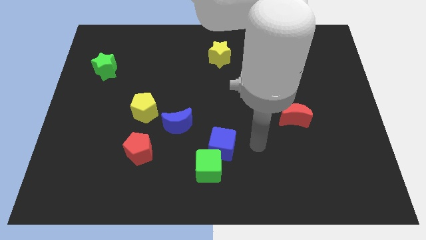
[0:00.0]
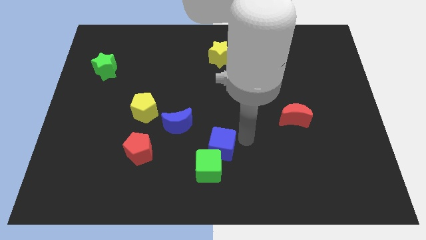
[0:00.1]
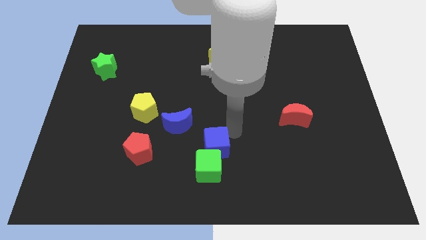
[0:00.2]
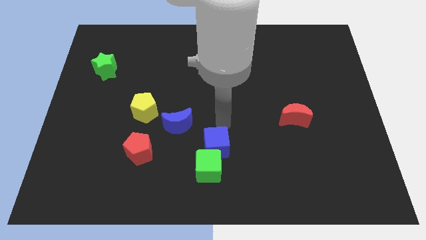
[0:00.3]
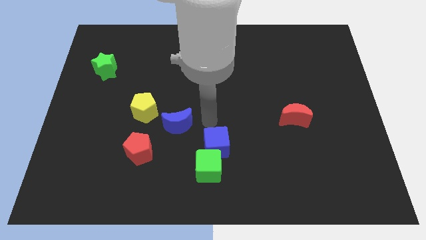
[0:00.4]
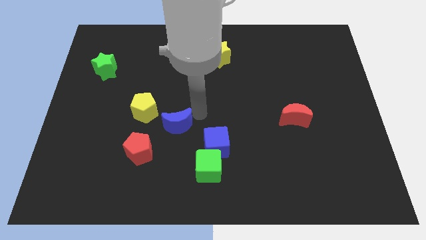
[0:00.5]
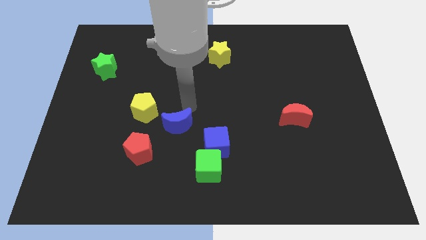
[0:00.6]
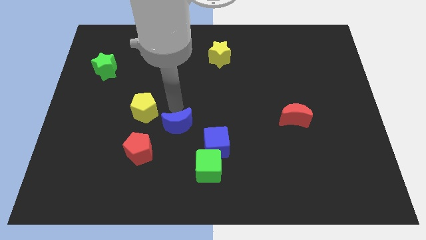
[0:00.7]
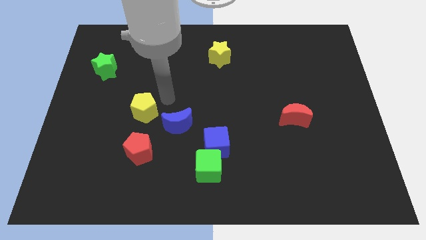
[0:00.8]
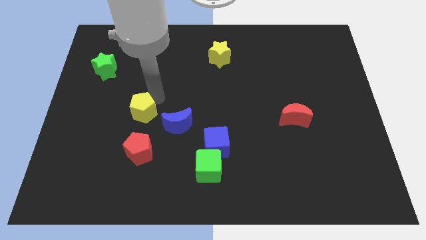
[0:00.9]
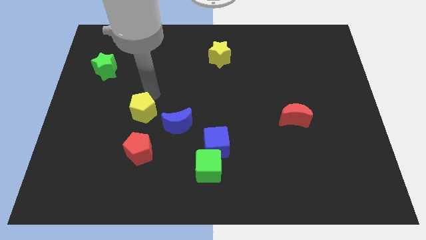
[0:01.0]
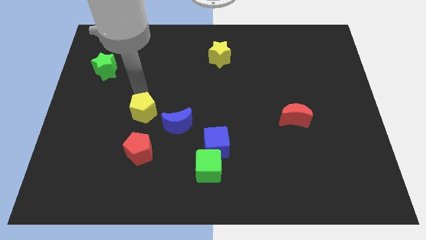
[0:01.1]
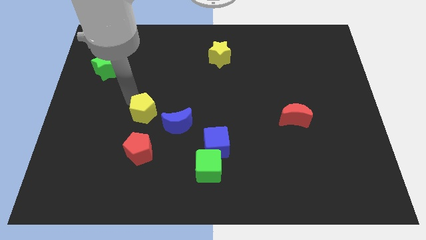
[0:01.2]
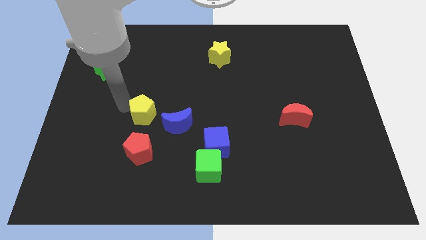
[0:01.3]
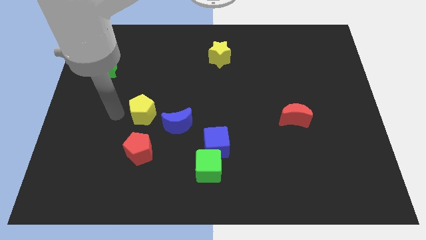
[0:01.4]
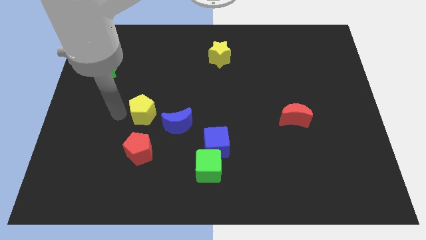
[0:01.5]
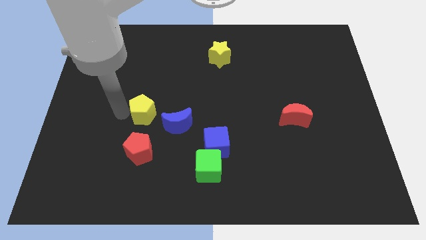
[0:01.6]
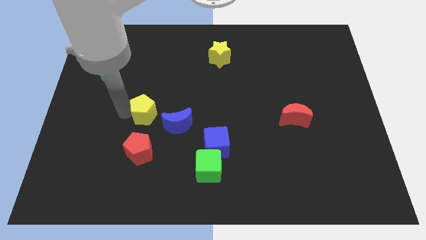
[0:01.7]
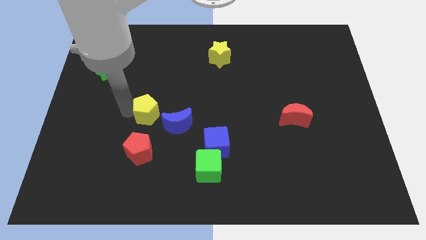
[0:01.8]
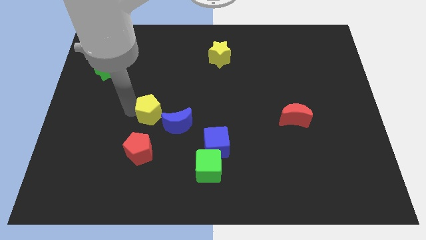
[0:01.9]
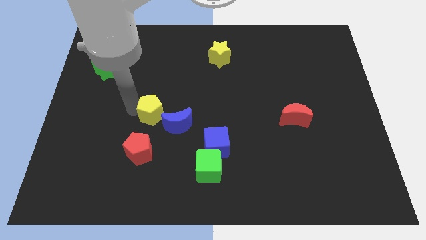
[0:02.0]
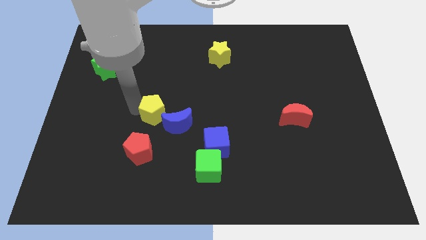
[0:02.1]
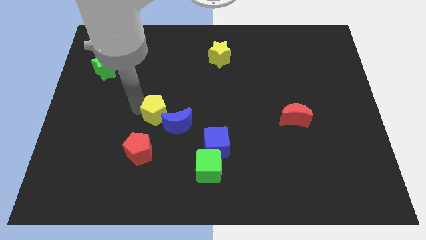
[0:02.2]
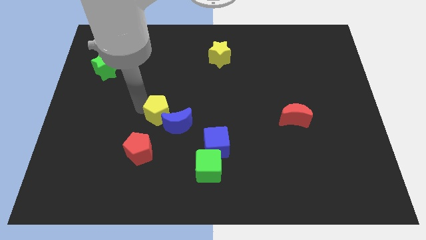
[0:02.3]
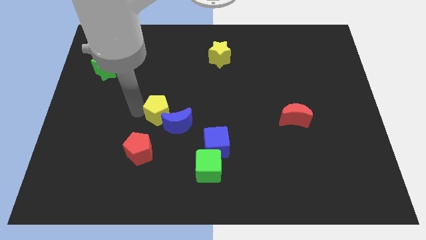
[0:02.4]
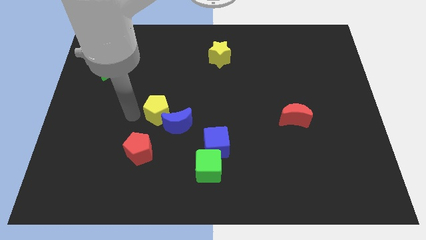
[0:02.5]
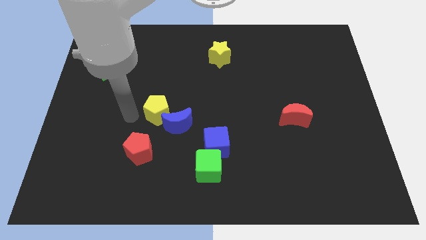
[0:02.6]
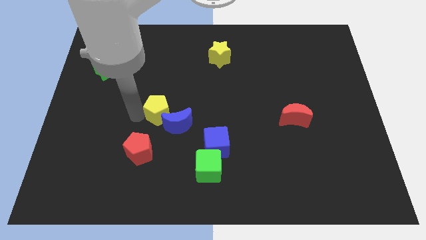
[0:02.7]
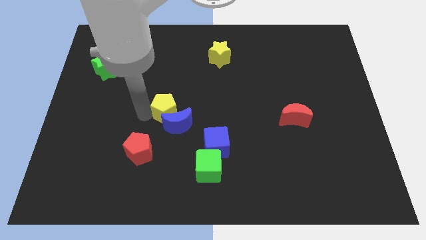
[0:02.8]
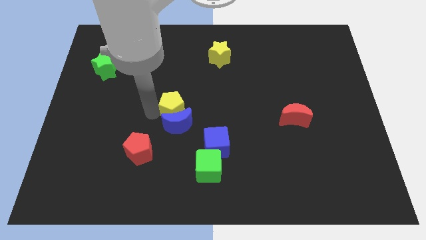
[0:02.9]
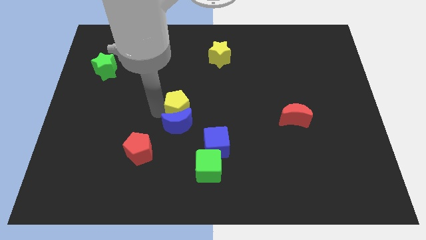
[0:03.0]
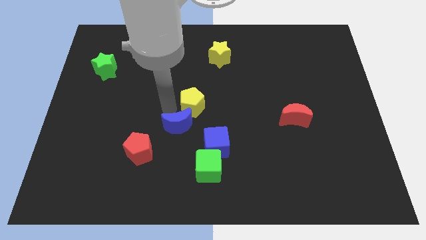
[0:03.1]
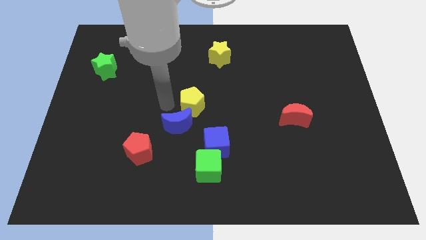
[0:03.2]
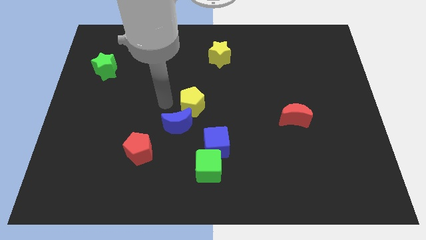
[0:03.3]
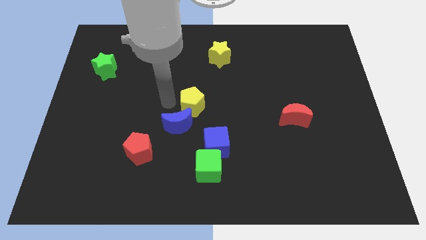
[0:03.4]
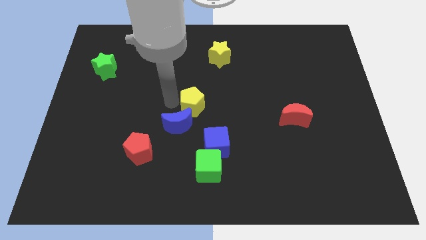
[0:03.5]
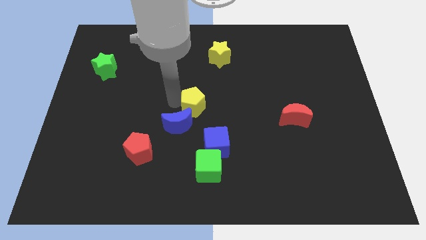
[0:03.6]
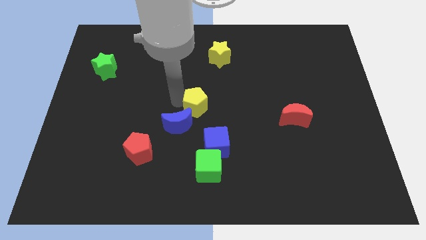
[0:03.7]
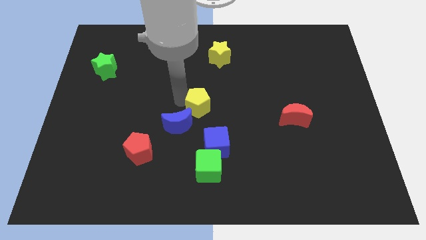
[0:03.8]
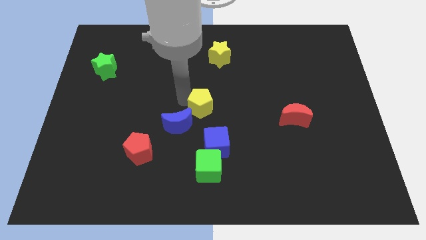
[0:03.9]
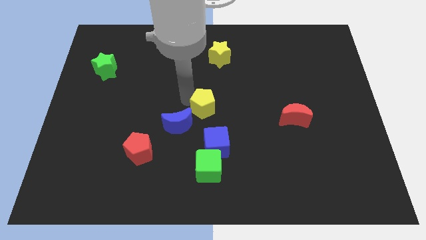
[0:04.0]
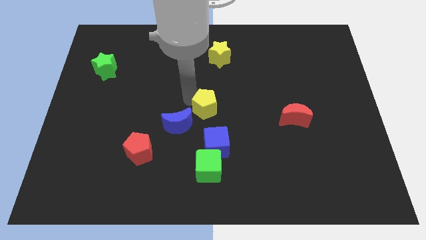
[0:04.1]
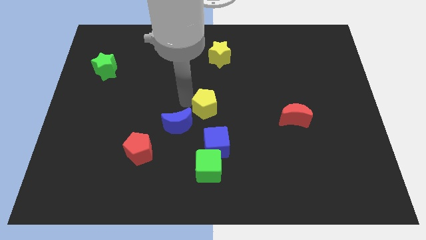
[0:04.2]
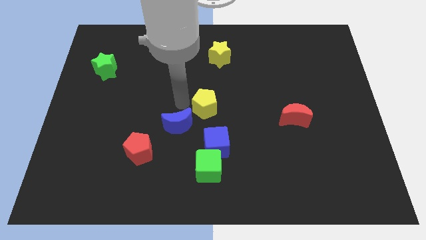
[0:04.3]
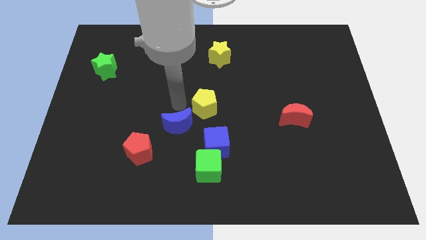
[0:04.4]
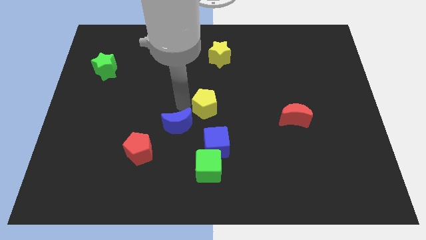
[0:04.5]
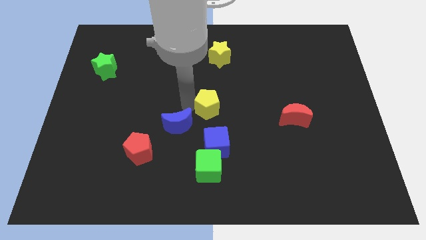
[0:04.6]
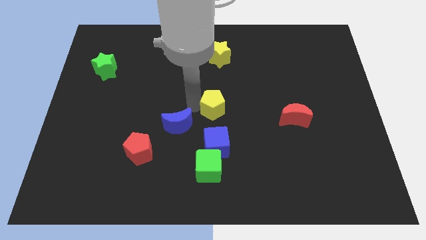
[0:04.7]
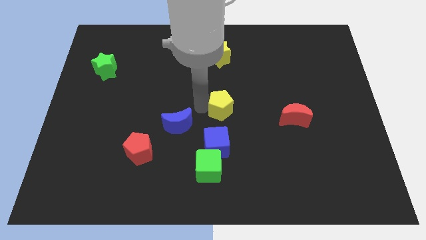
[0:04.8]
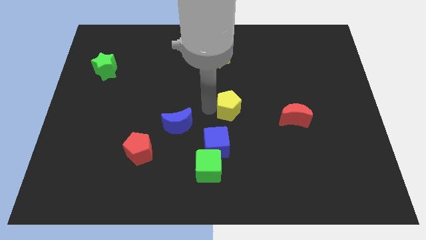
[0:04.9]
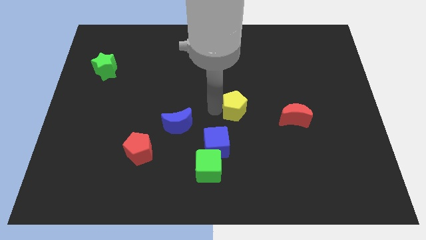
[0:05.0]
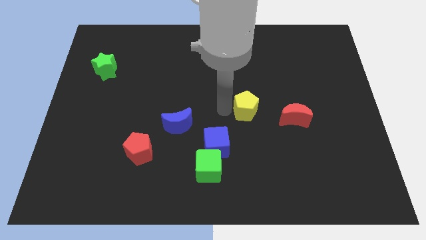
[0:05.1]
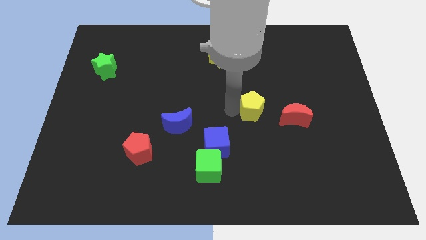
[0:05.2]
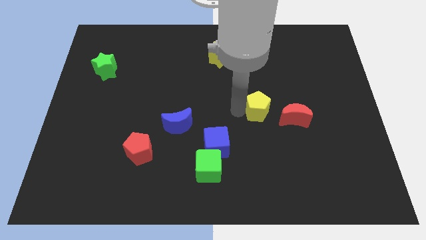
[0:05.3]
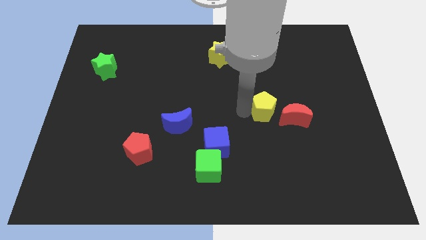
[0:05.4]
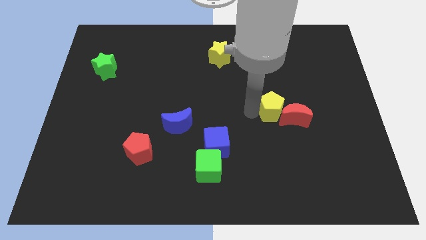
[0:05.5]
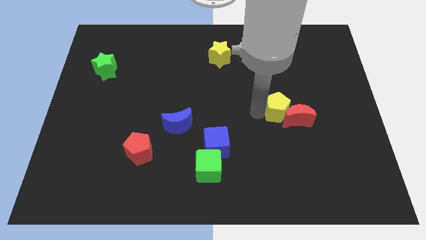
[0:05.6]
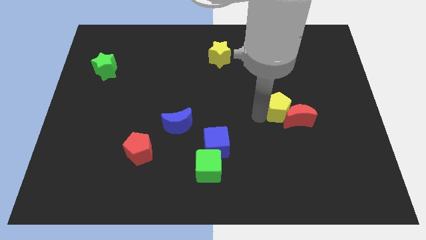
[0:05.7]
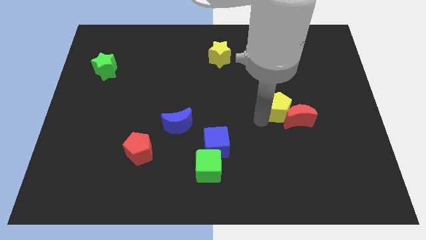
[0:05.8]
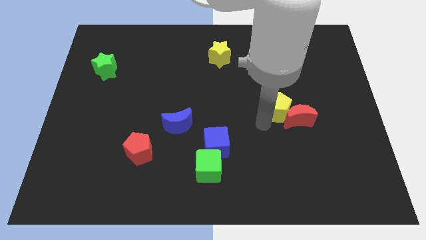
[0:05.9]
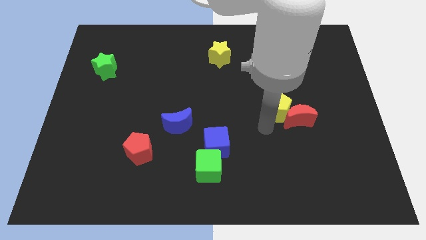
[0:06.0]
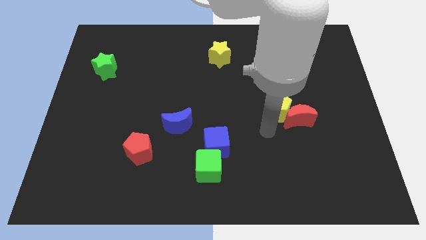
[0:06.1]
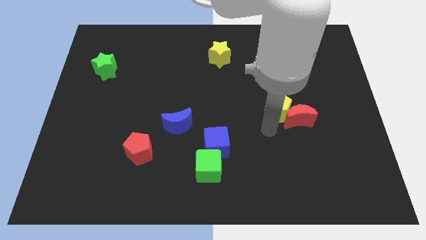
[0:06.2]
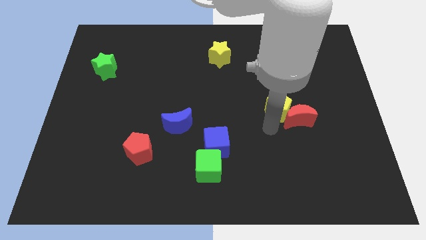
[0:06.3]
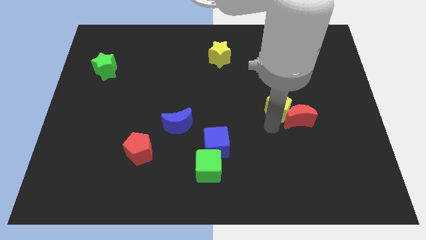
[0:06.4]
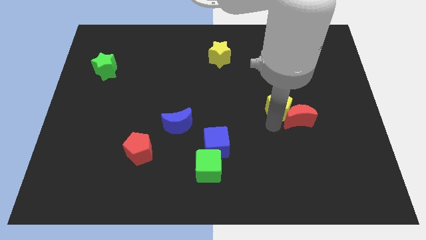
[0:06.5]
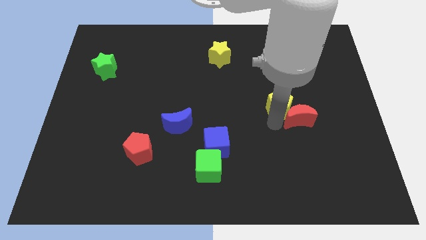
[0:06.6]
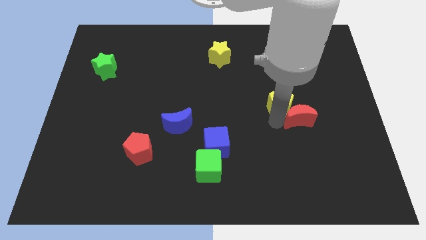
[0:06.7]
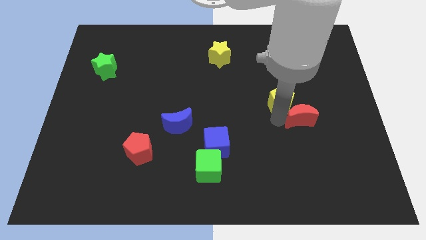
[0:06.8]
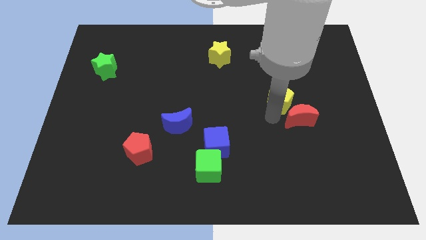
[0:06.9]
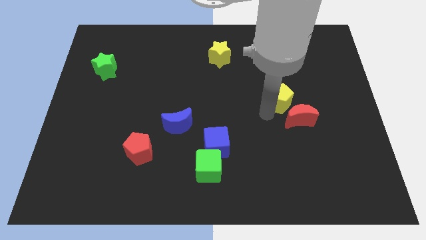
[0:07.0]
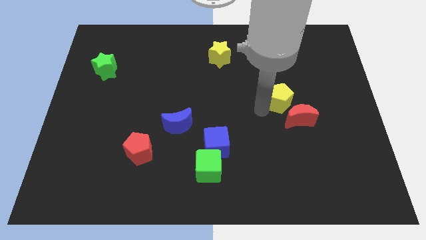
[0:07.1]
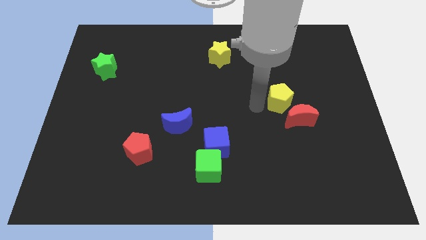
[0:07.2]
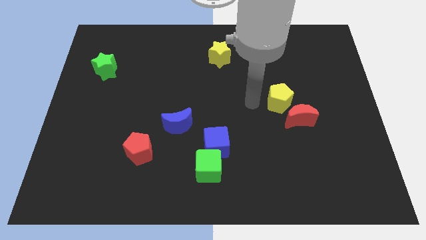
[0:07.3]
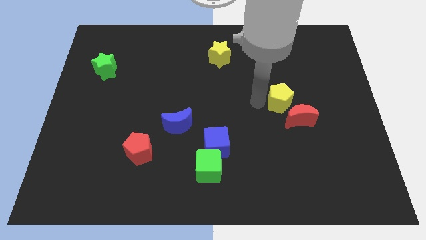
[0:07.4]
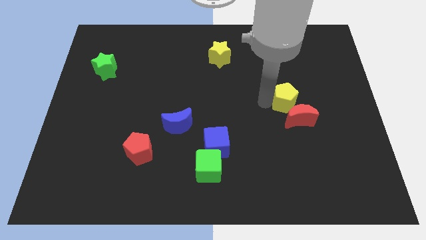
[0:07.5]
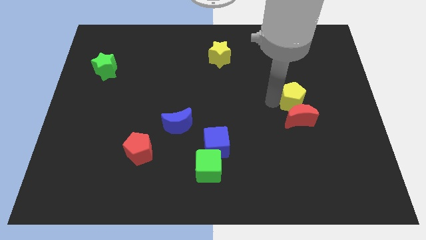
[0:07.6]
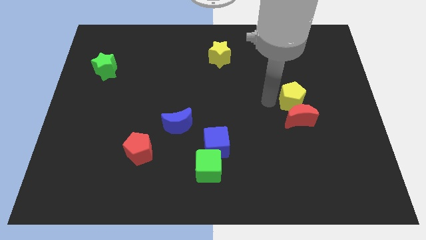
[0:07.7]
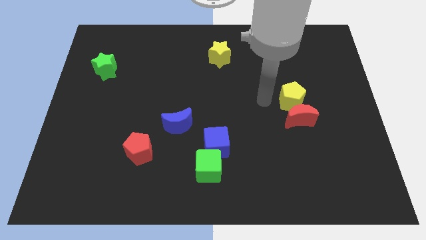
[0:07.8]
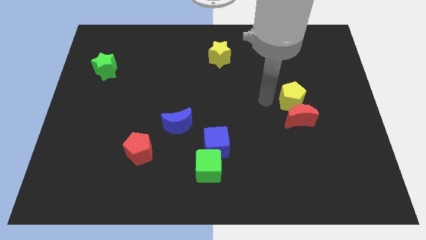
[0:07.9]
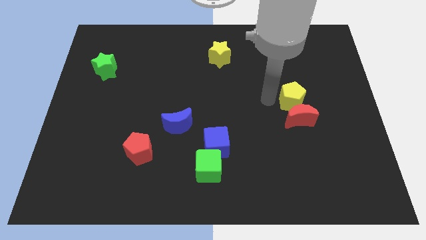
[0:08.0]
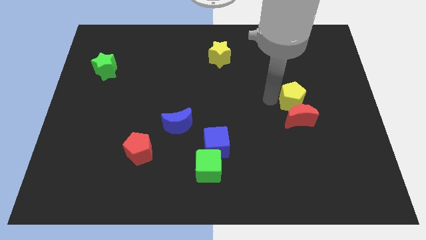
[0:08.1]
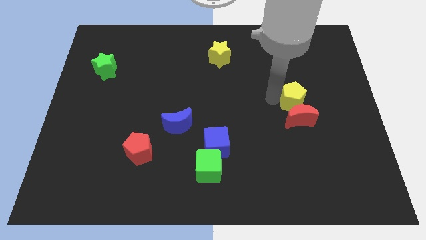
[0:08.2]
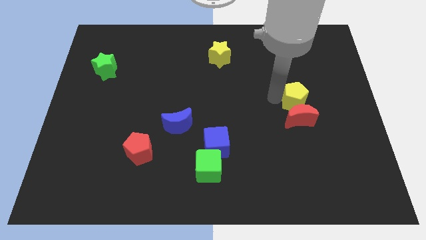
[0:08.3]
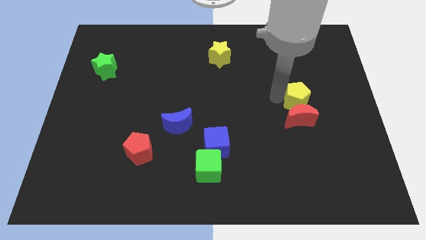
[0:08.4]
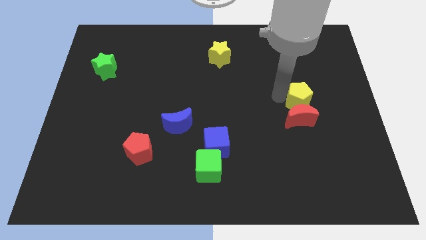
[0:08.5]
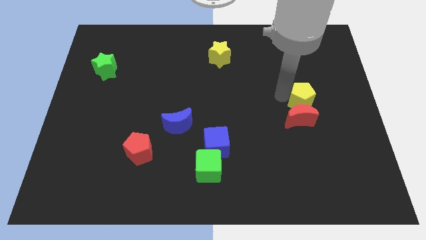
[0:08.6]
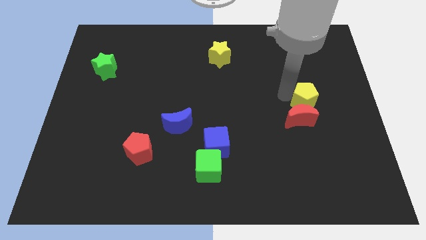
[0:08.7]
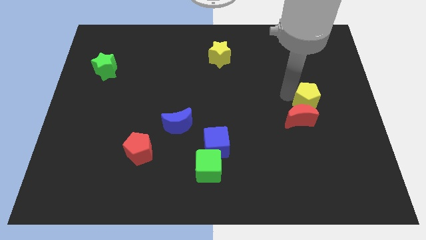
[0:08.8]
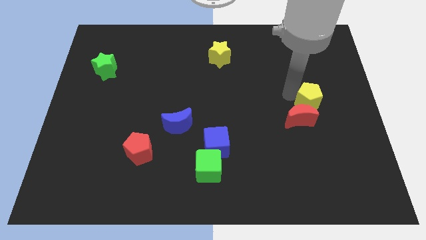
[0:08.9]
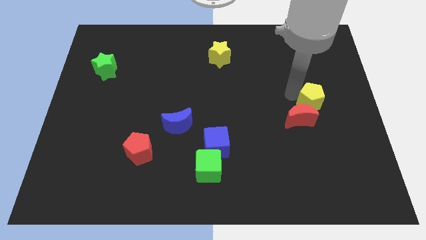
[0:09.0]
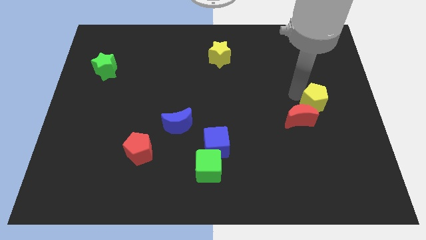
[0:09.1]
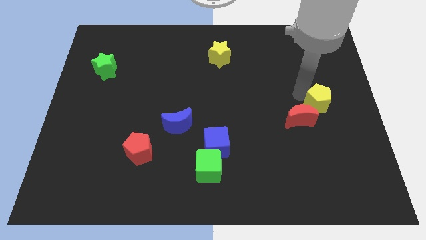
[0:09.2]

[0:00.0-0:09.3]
put the yellow pentagon just right of the red moon
